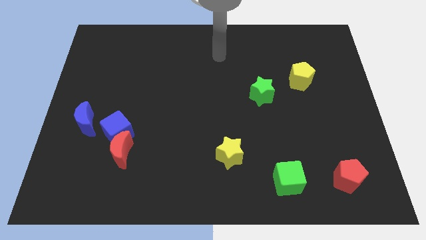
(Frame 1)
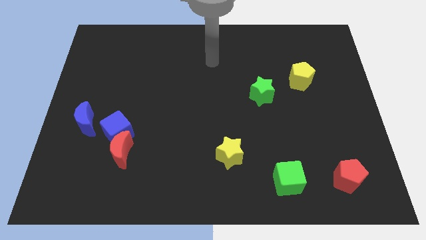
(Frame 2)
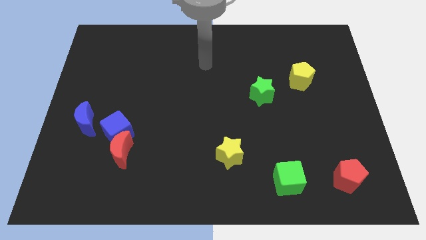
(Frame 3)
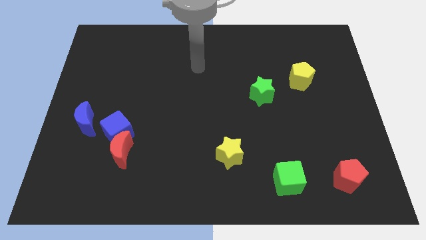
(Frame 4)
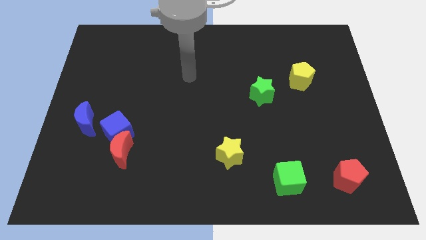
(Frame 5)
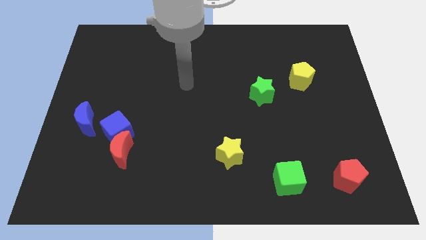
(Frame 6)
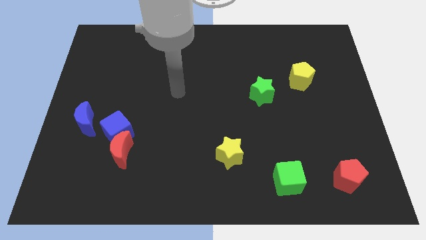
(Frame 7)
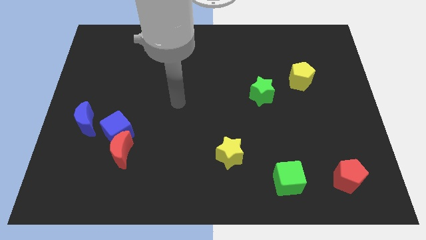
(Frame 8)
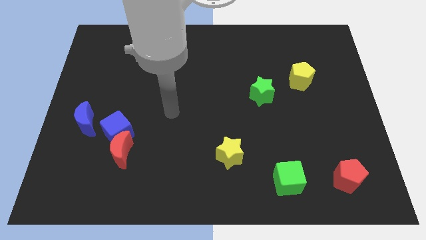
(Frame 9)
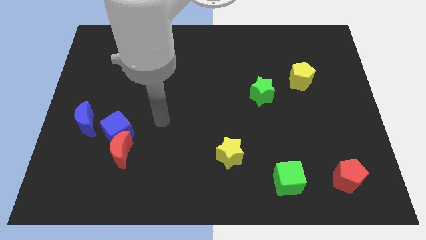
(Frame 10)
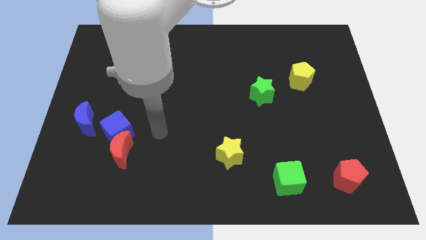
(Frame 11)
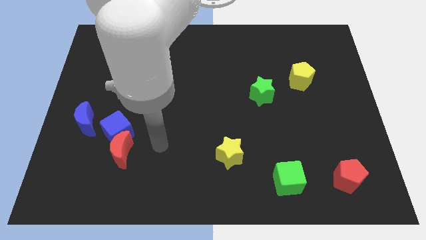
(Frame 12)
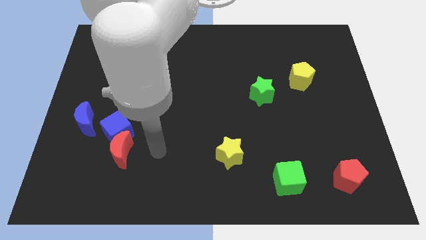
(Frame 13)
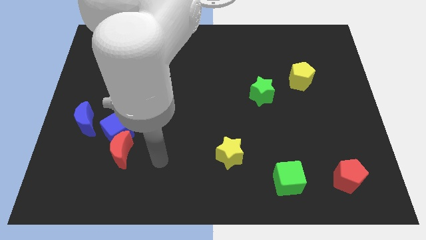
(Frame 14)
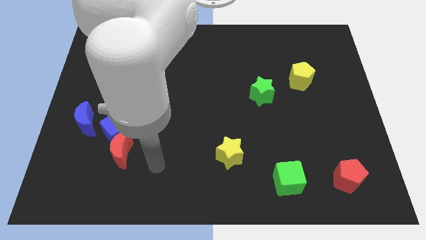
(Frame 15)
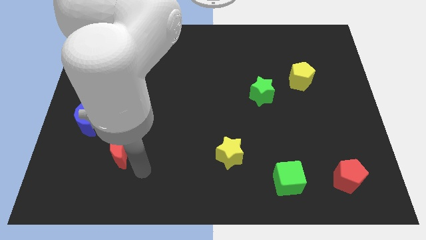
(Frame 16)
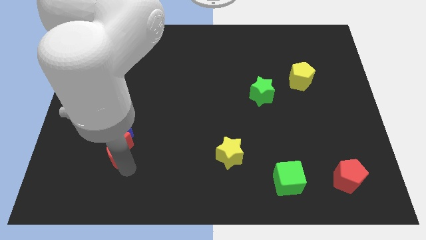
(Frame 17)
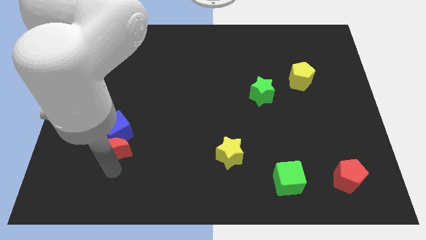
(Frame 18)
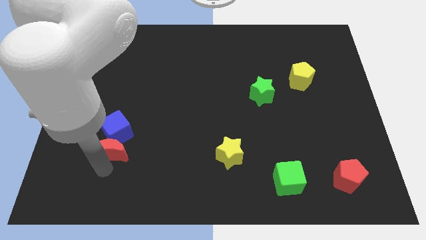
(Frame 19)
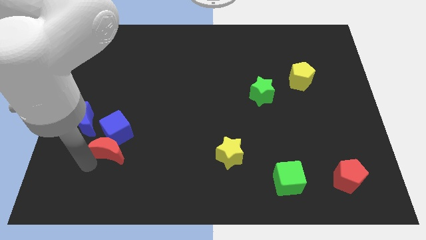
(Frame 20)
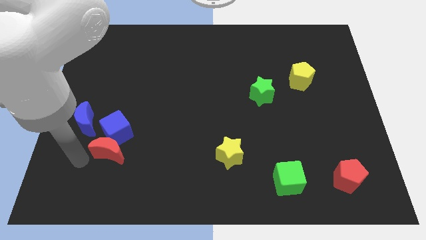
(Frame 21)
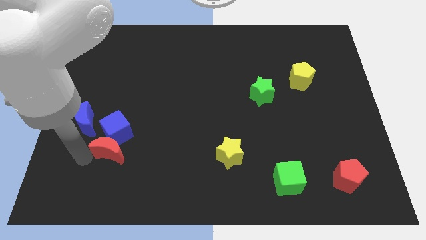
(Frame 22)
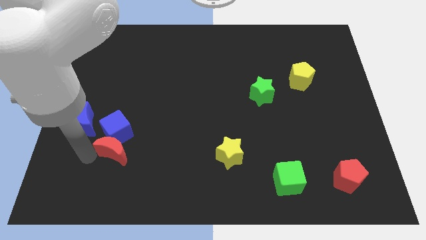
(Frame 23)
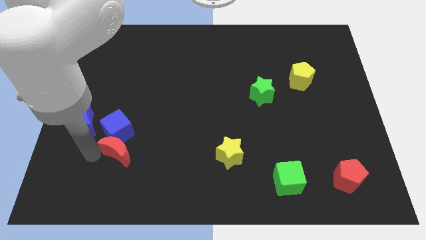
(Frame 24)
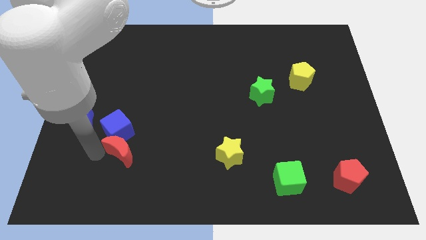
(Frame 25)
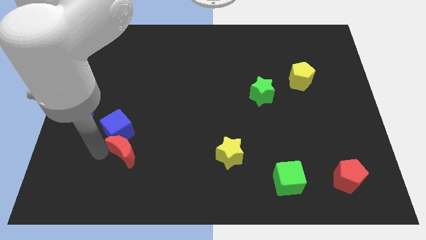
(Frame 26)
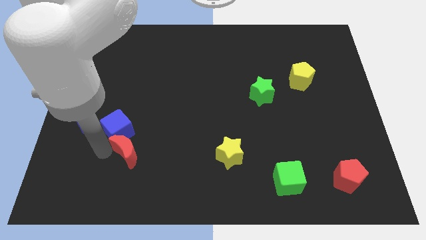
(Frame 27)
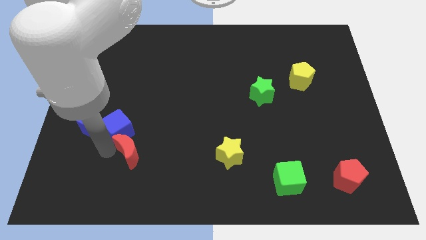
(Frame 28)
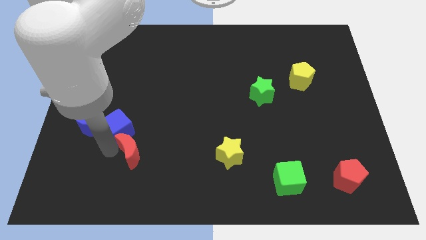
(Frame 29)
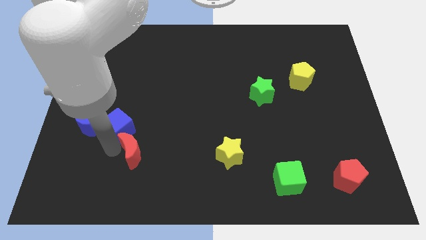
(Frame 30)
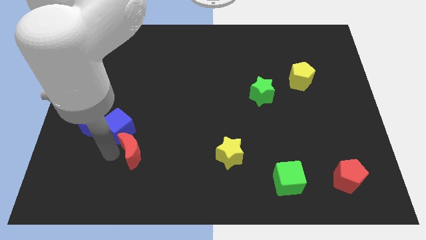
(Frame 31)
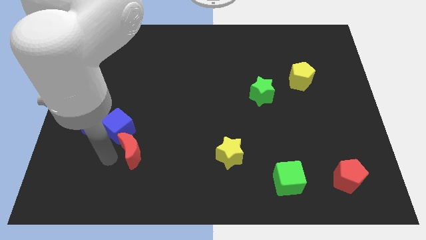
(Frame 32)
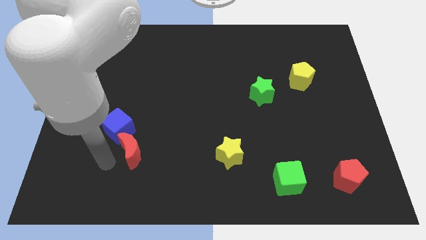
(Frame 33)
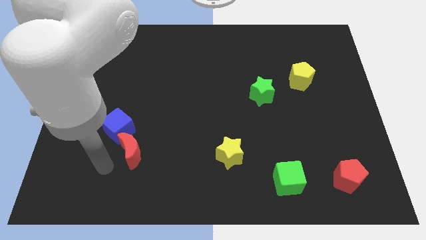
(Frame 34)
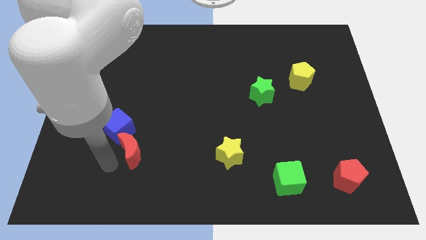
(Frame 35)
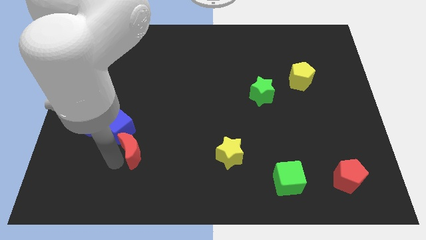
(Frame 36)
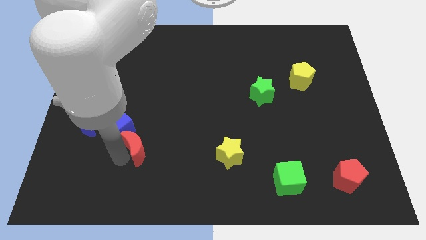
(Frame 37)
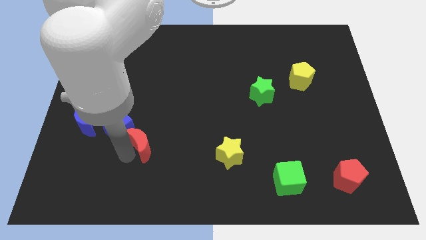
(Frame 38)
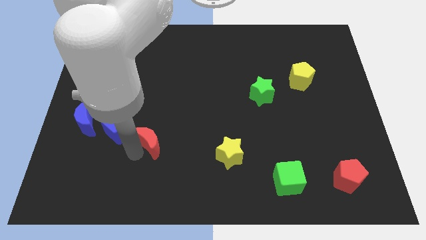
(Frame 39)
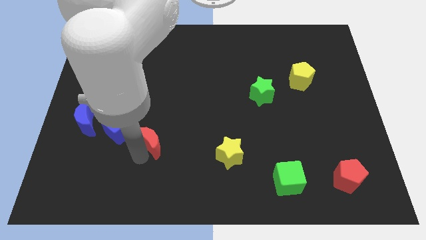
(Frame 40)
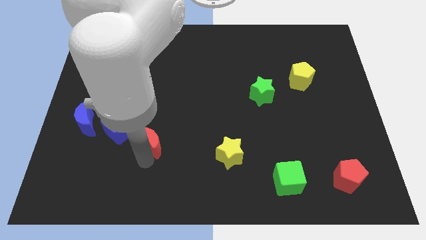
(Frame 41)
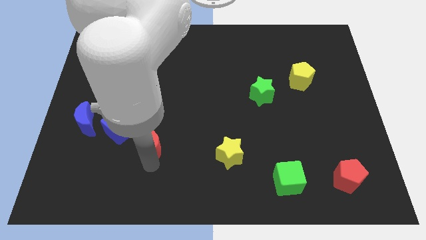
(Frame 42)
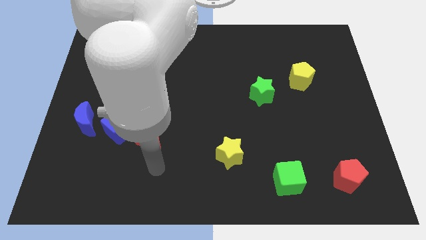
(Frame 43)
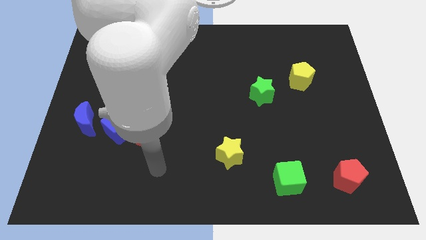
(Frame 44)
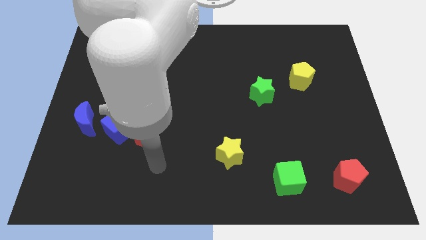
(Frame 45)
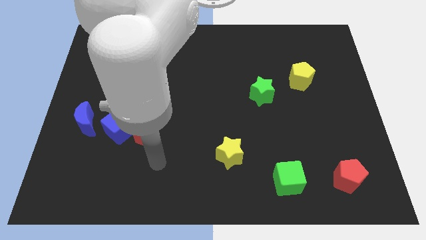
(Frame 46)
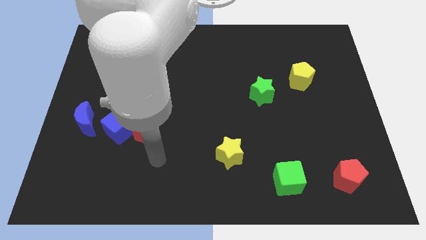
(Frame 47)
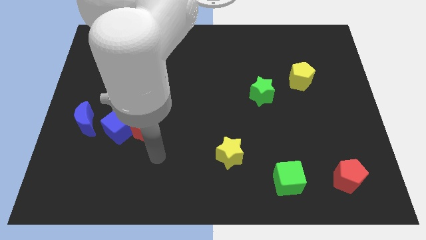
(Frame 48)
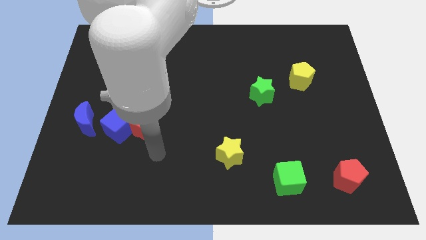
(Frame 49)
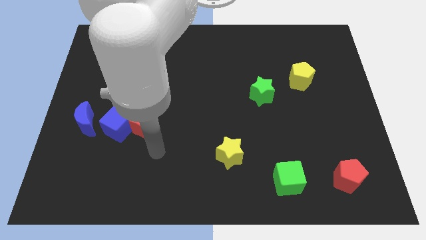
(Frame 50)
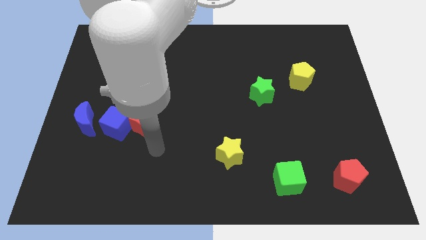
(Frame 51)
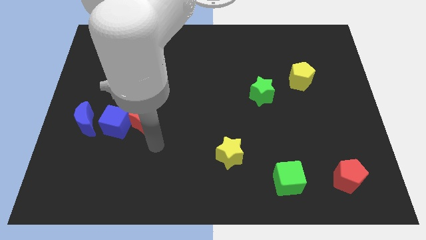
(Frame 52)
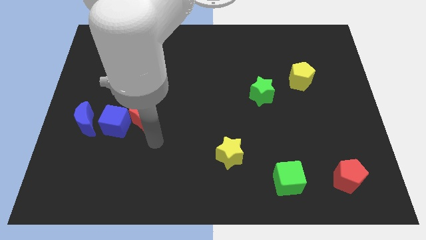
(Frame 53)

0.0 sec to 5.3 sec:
move the red moon a little up

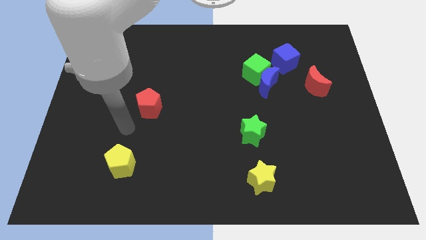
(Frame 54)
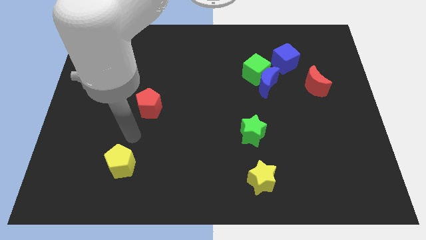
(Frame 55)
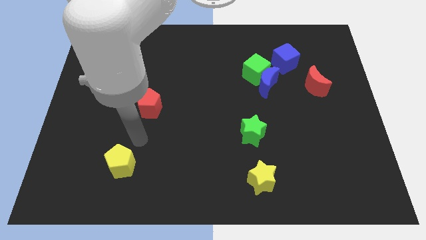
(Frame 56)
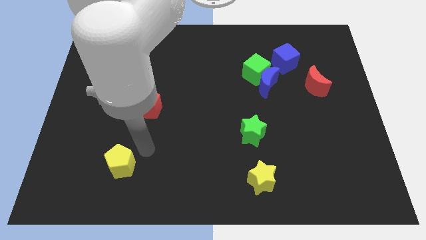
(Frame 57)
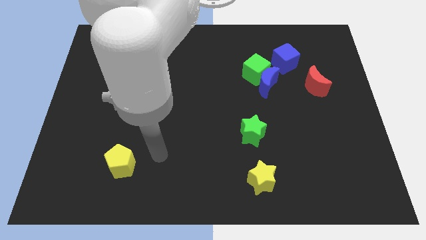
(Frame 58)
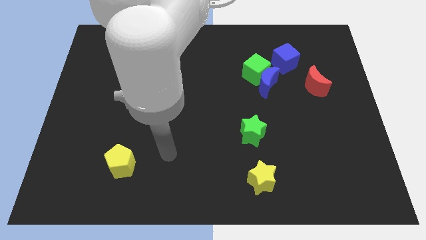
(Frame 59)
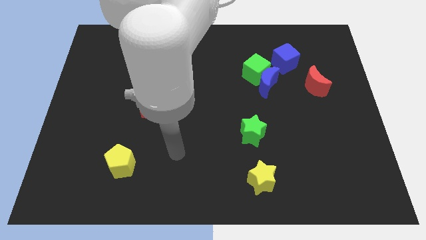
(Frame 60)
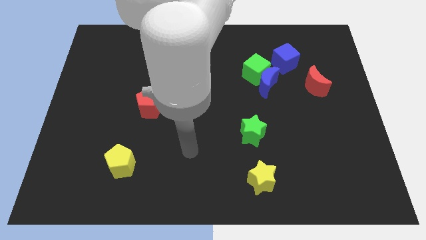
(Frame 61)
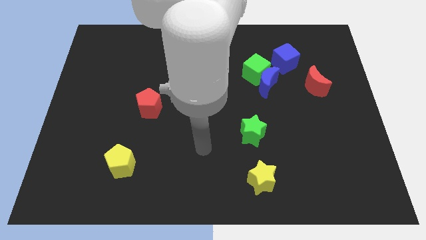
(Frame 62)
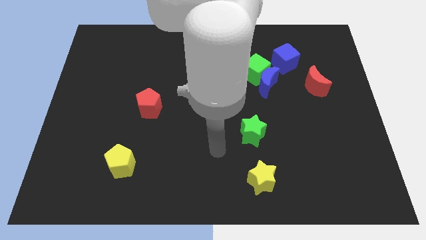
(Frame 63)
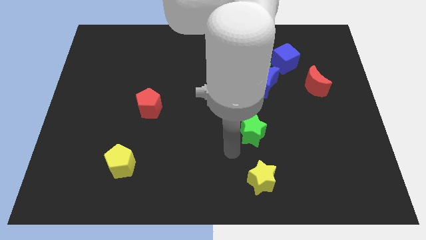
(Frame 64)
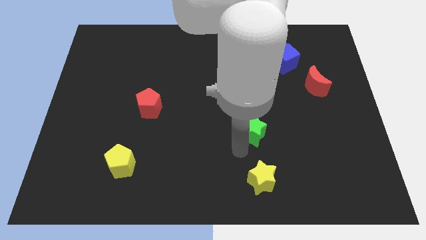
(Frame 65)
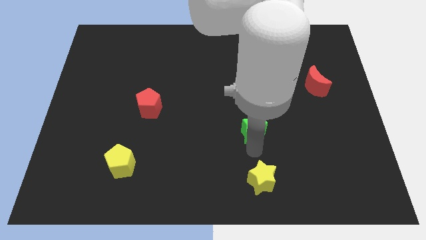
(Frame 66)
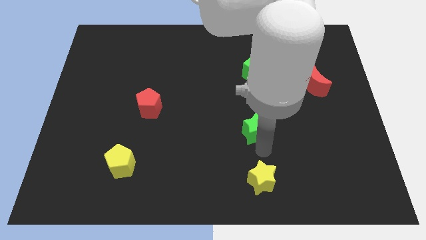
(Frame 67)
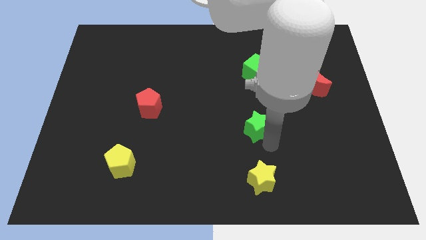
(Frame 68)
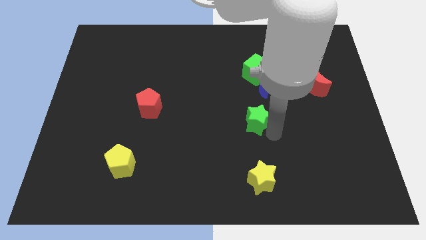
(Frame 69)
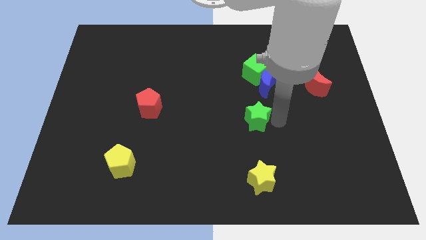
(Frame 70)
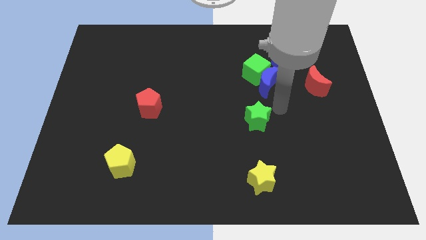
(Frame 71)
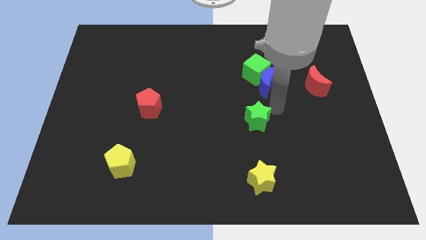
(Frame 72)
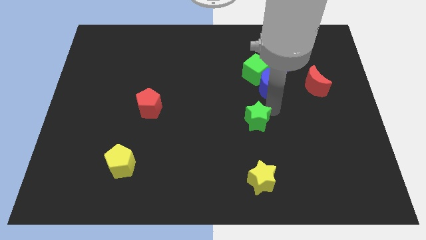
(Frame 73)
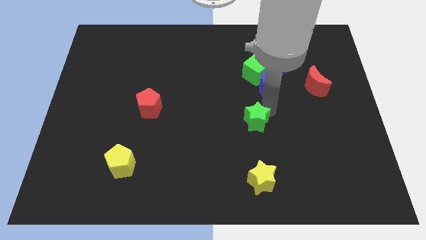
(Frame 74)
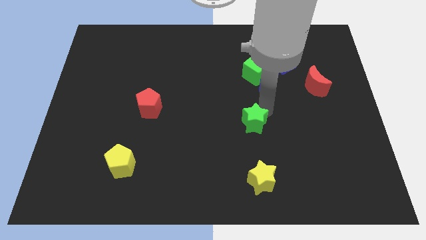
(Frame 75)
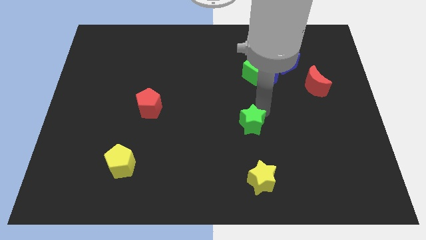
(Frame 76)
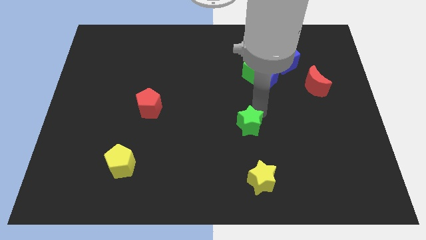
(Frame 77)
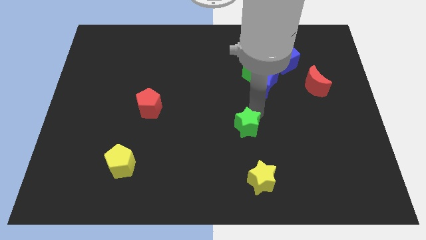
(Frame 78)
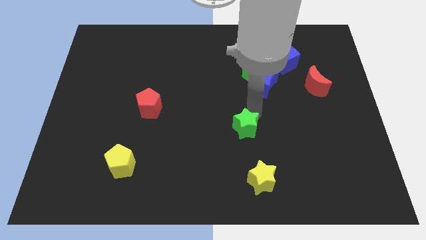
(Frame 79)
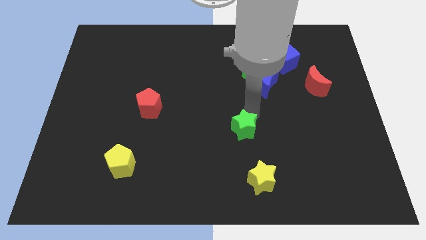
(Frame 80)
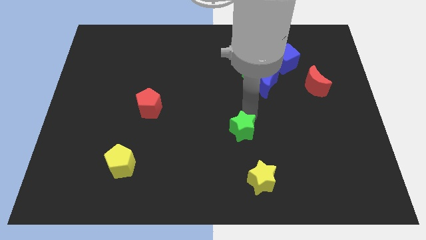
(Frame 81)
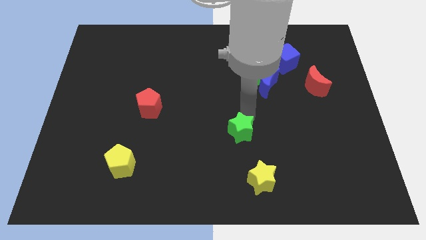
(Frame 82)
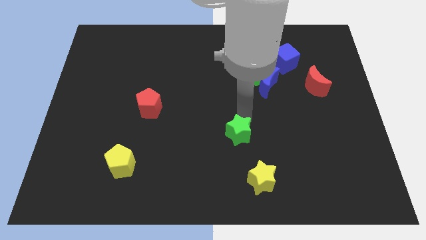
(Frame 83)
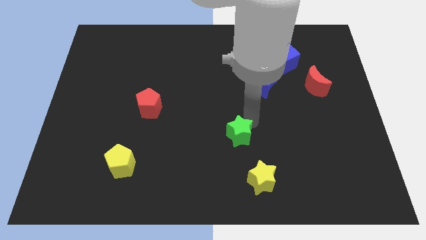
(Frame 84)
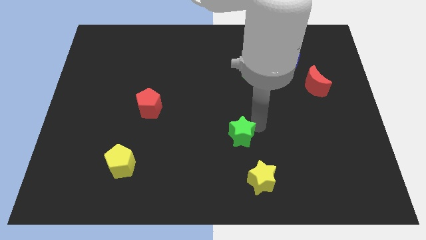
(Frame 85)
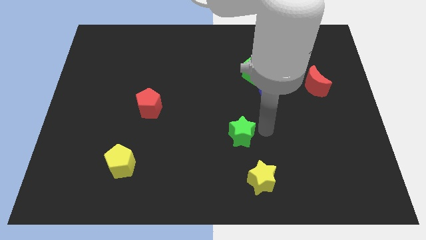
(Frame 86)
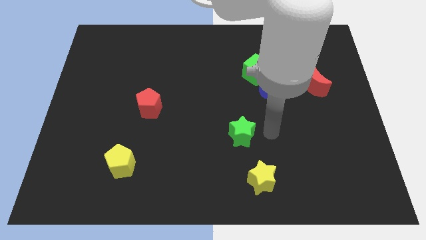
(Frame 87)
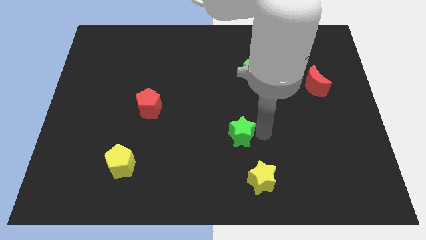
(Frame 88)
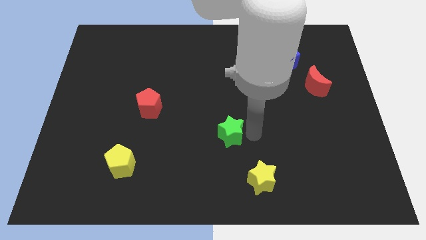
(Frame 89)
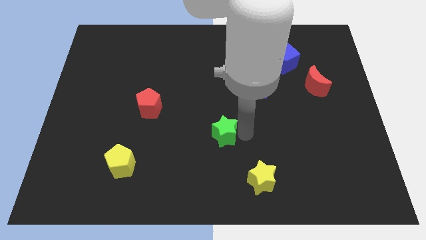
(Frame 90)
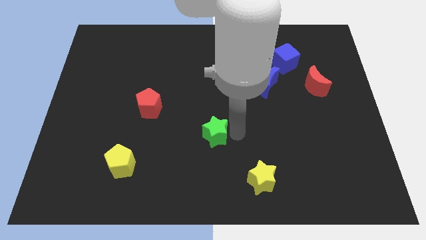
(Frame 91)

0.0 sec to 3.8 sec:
slightly move the green star left
